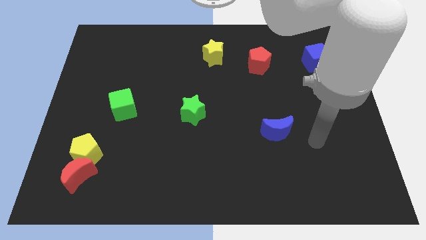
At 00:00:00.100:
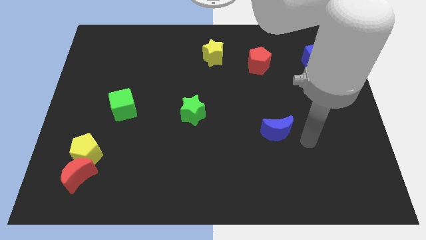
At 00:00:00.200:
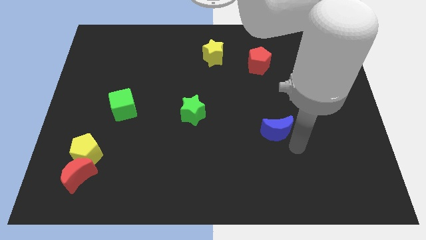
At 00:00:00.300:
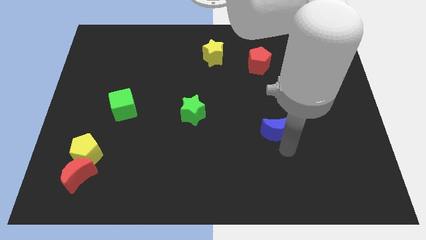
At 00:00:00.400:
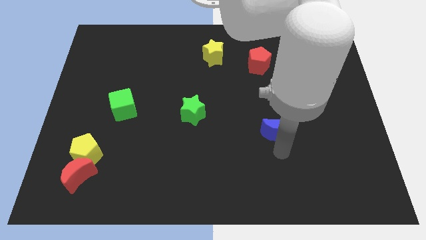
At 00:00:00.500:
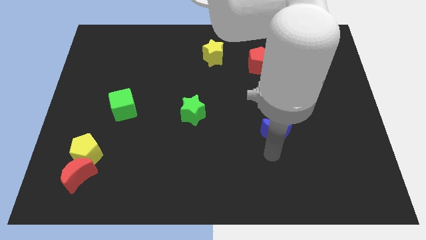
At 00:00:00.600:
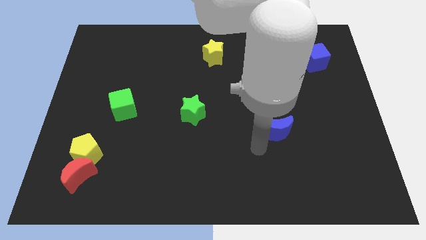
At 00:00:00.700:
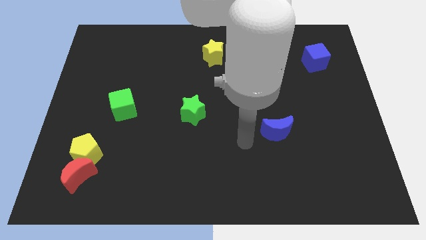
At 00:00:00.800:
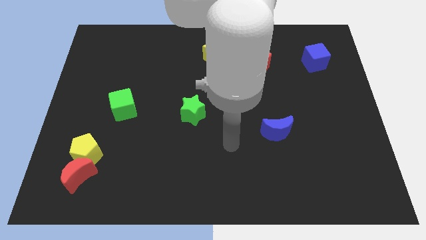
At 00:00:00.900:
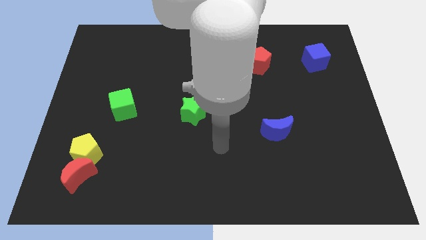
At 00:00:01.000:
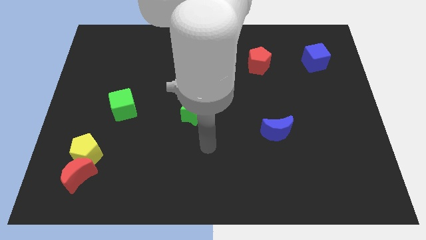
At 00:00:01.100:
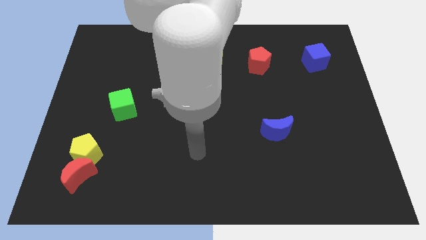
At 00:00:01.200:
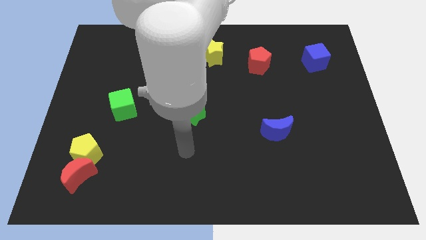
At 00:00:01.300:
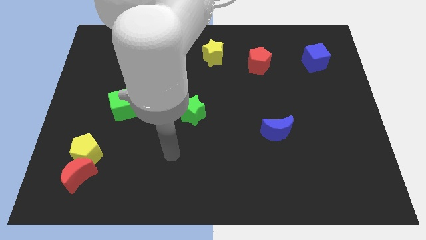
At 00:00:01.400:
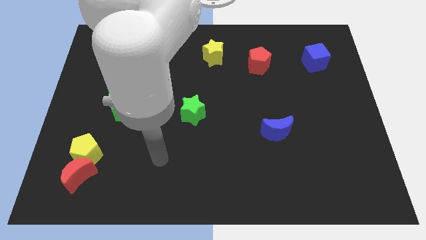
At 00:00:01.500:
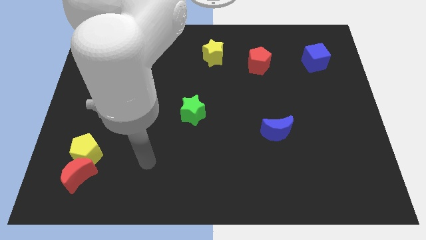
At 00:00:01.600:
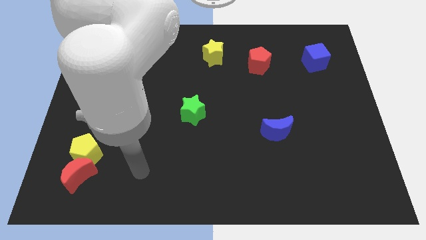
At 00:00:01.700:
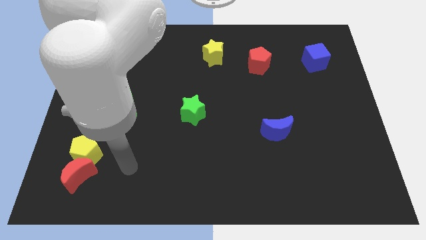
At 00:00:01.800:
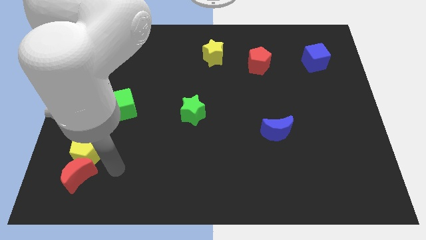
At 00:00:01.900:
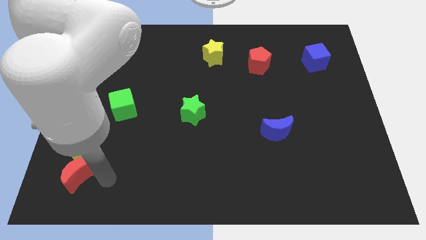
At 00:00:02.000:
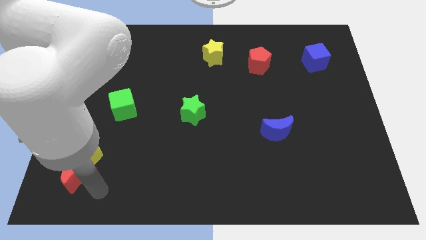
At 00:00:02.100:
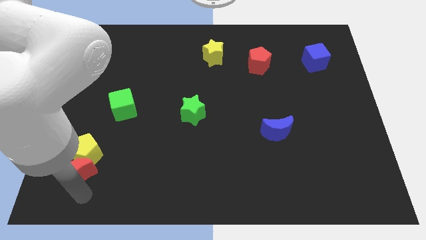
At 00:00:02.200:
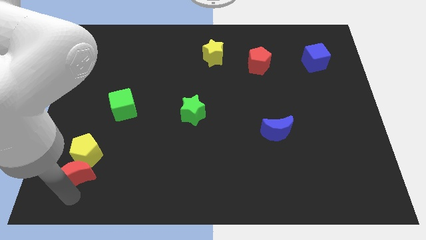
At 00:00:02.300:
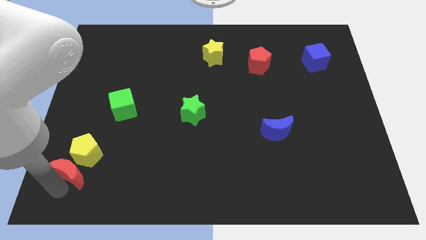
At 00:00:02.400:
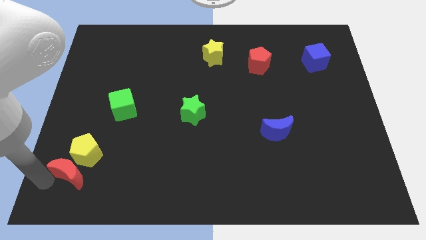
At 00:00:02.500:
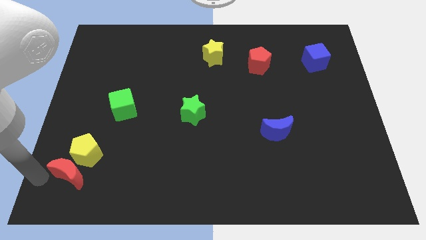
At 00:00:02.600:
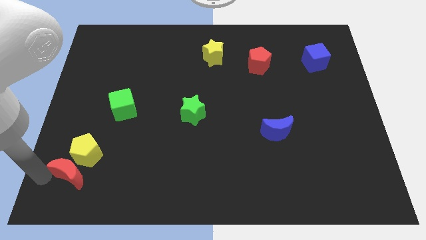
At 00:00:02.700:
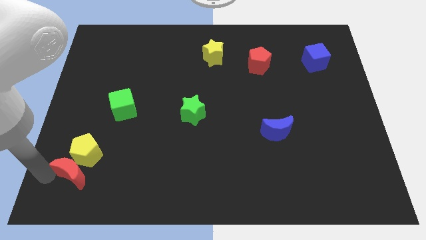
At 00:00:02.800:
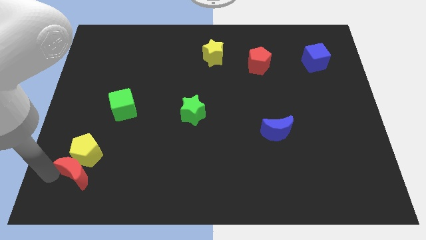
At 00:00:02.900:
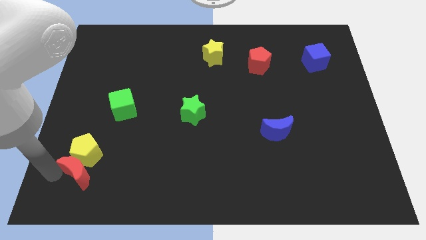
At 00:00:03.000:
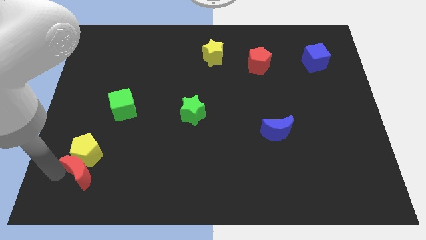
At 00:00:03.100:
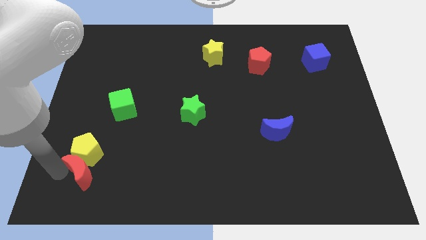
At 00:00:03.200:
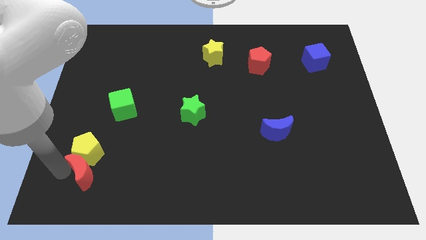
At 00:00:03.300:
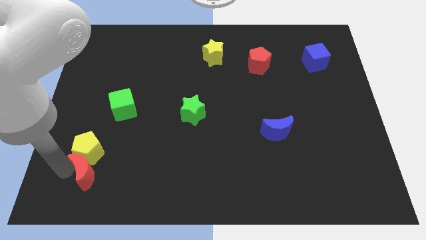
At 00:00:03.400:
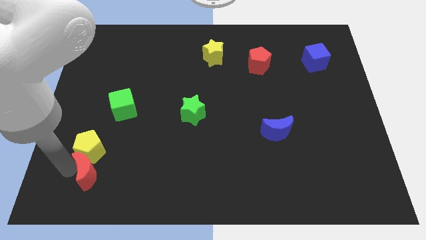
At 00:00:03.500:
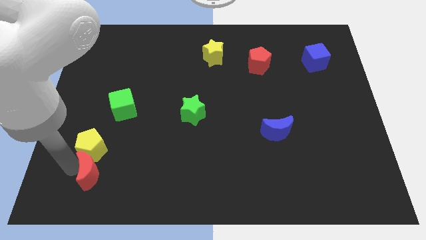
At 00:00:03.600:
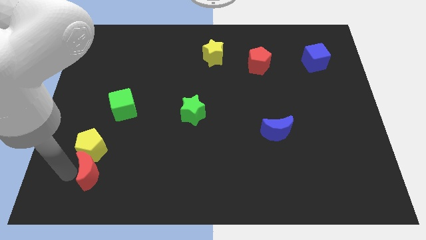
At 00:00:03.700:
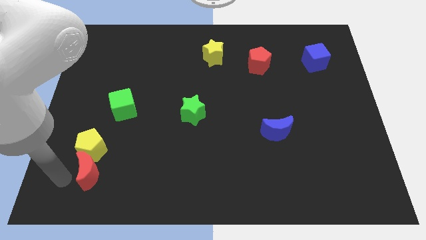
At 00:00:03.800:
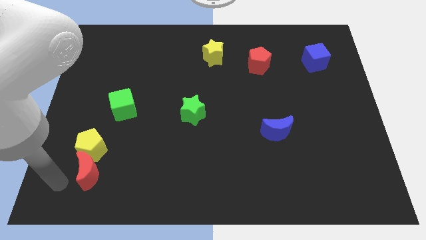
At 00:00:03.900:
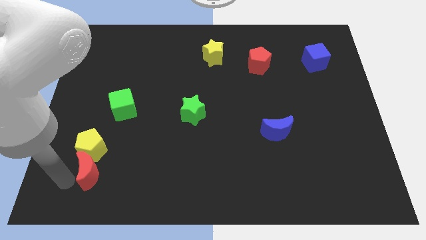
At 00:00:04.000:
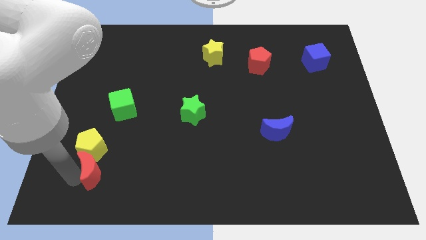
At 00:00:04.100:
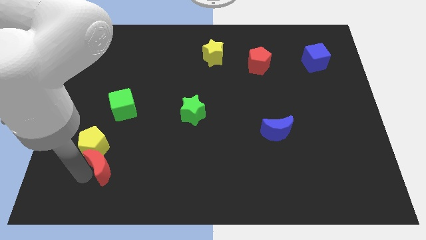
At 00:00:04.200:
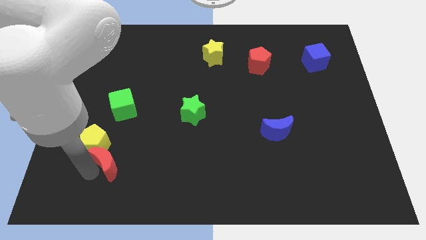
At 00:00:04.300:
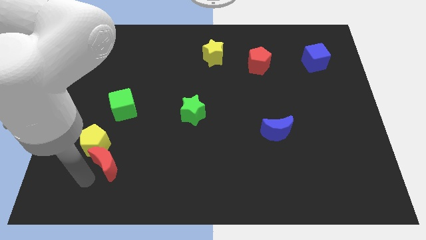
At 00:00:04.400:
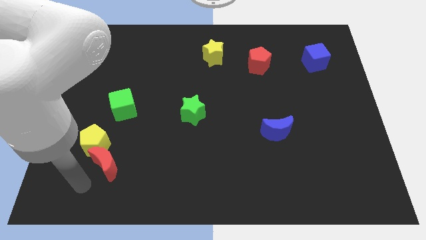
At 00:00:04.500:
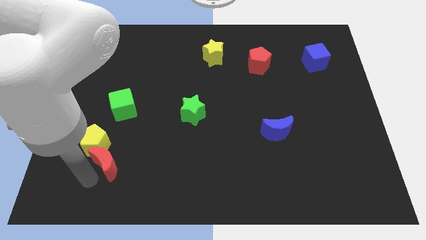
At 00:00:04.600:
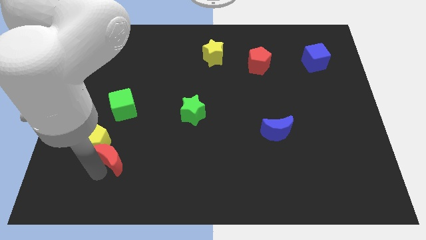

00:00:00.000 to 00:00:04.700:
slide the red moon up and right diagonally a little bit

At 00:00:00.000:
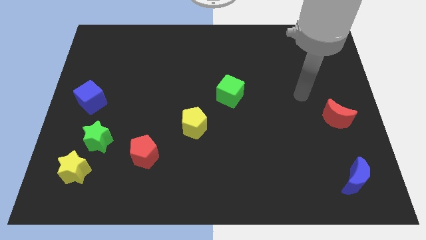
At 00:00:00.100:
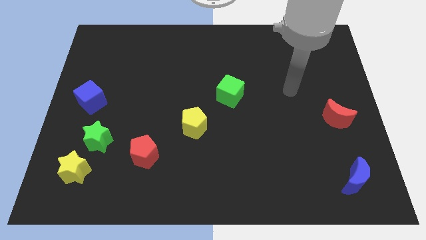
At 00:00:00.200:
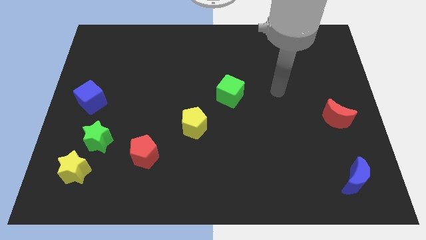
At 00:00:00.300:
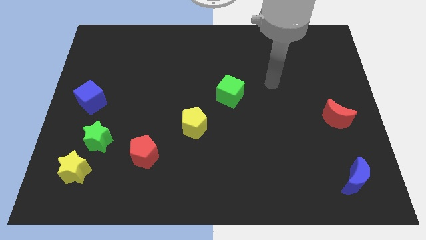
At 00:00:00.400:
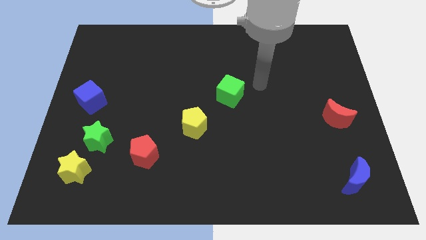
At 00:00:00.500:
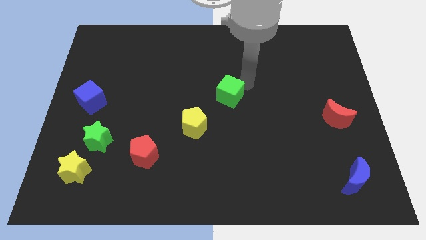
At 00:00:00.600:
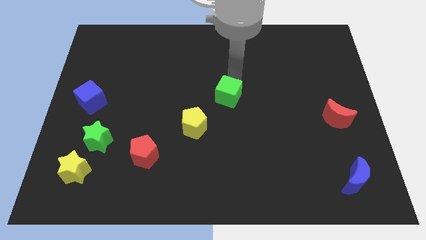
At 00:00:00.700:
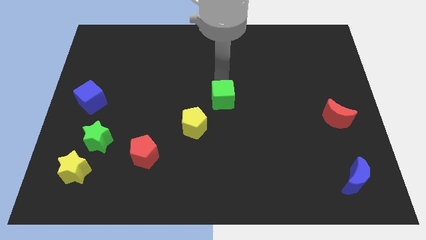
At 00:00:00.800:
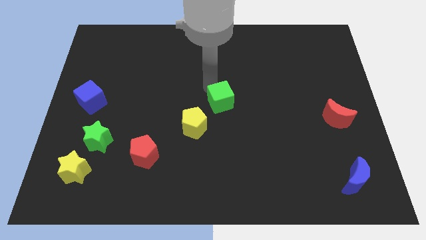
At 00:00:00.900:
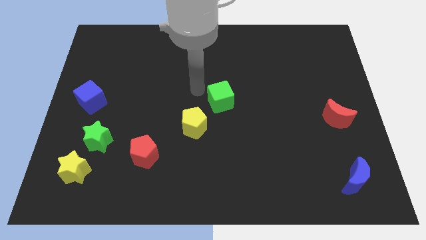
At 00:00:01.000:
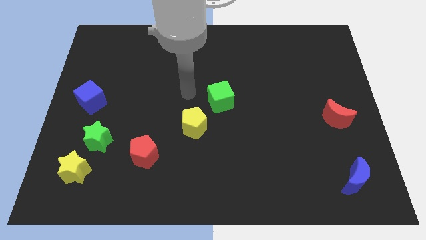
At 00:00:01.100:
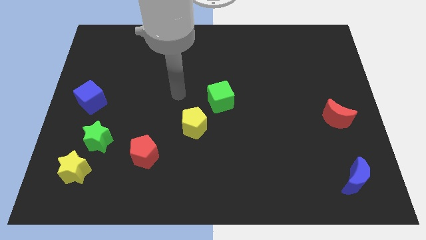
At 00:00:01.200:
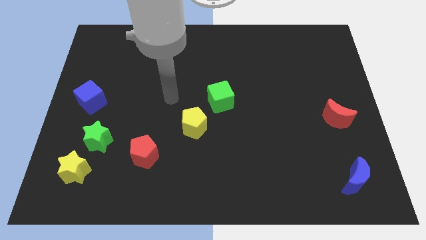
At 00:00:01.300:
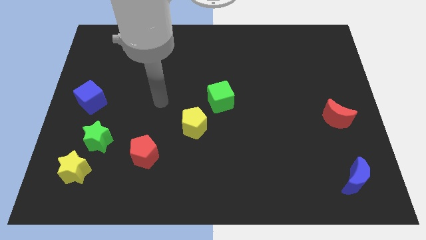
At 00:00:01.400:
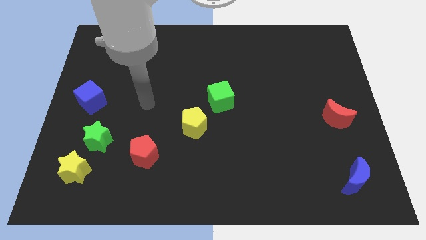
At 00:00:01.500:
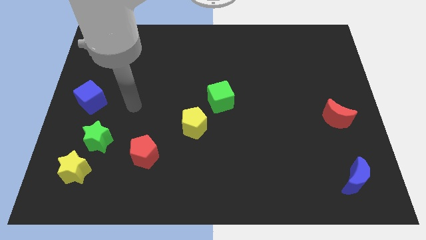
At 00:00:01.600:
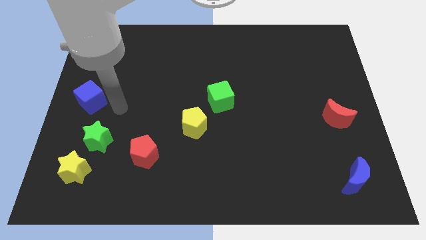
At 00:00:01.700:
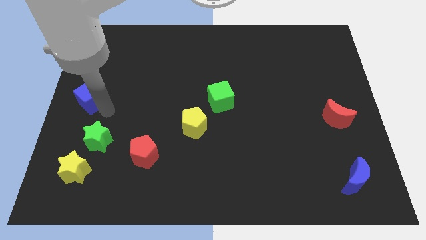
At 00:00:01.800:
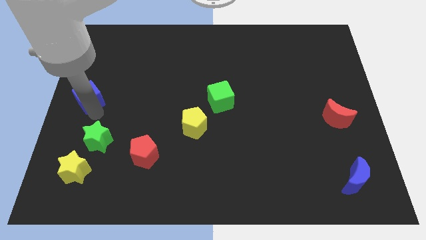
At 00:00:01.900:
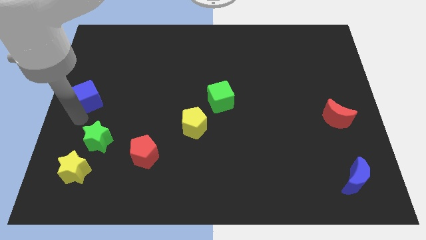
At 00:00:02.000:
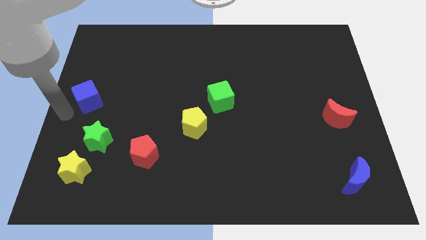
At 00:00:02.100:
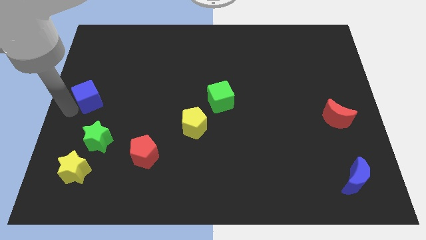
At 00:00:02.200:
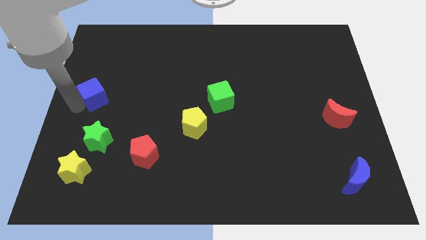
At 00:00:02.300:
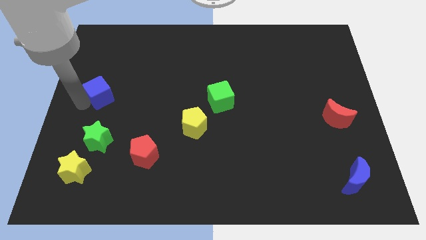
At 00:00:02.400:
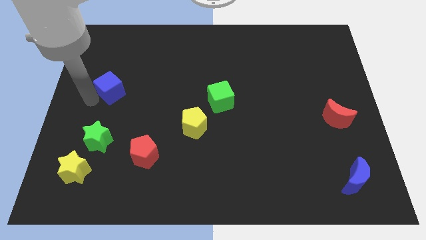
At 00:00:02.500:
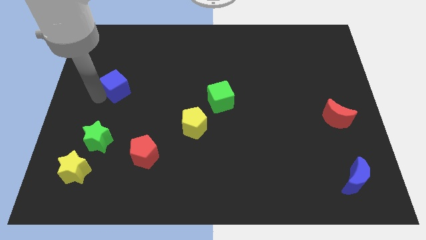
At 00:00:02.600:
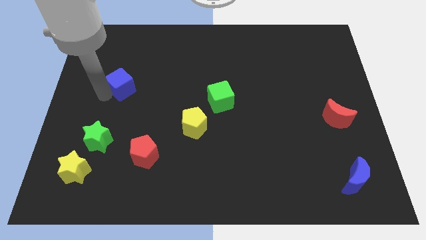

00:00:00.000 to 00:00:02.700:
push the blue cube a little bit upwards and right diagonally

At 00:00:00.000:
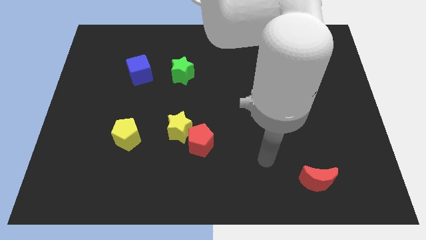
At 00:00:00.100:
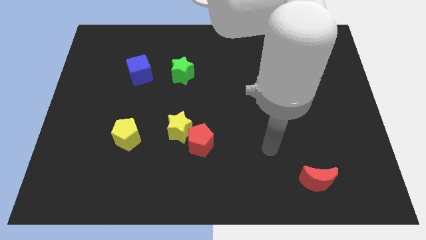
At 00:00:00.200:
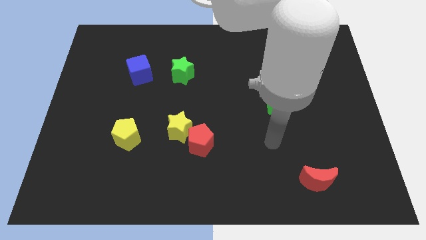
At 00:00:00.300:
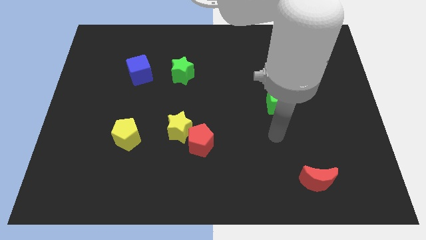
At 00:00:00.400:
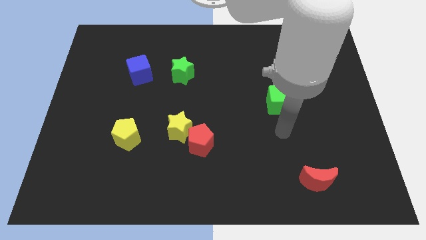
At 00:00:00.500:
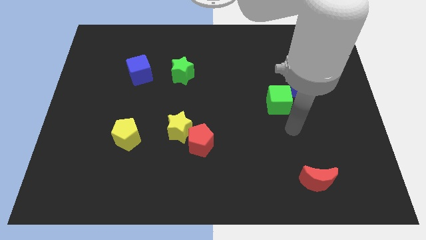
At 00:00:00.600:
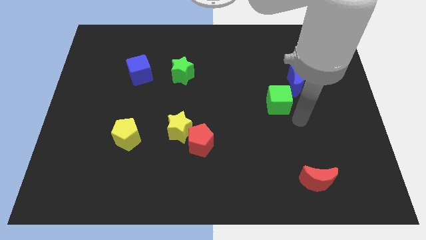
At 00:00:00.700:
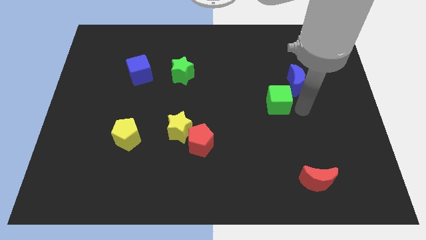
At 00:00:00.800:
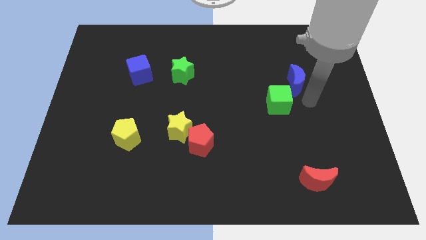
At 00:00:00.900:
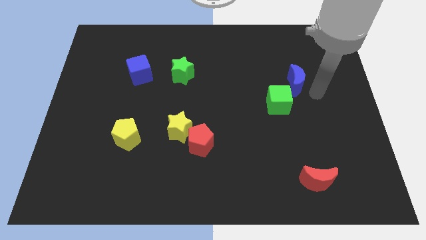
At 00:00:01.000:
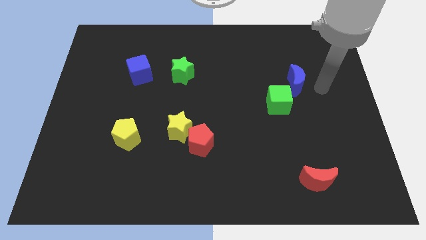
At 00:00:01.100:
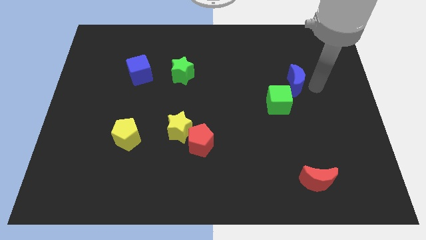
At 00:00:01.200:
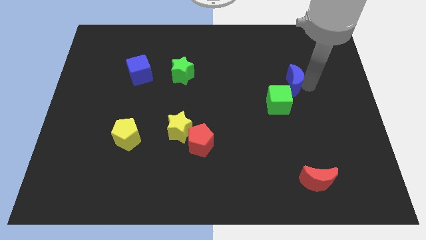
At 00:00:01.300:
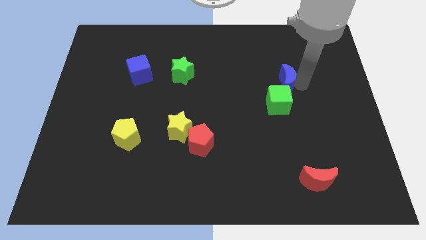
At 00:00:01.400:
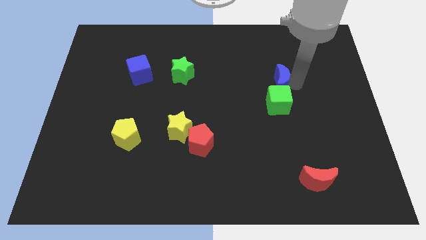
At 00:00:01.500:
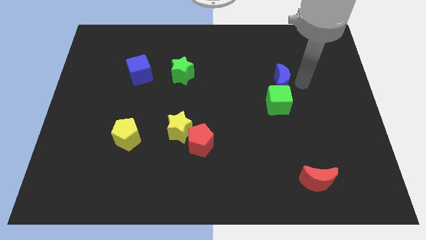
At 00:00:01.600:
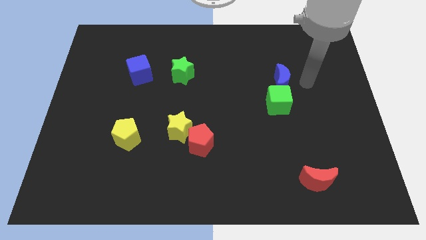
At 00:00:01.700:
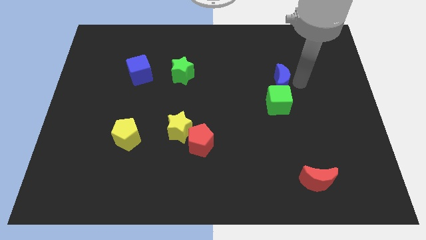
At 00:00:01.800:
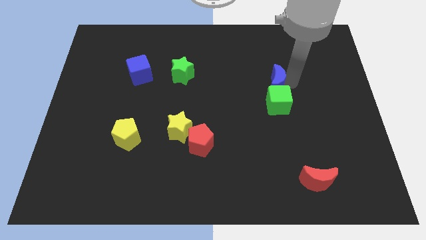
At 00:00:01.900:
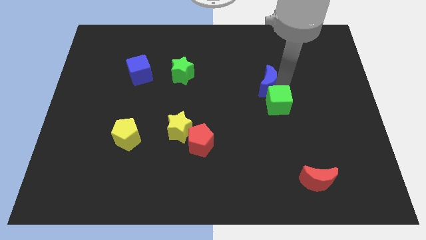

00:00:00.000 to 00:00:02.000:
slightly slide the blue moon left
